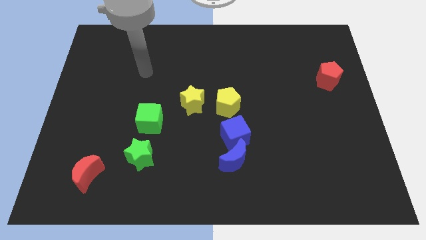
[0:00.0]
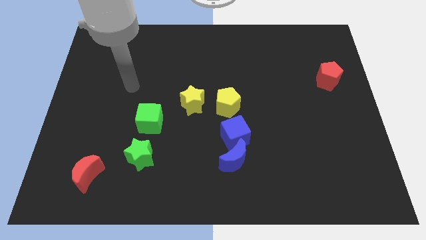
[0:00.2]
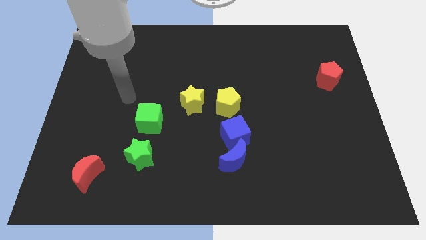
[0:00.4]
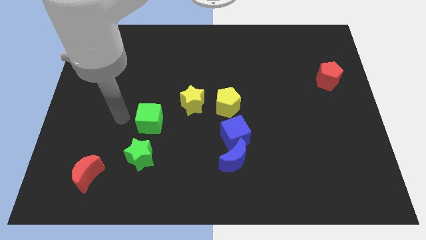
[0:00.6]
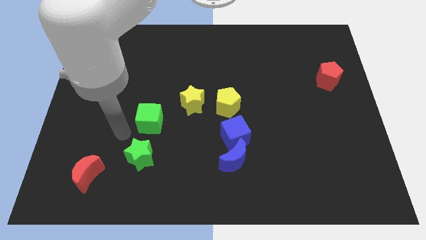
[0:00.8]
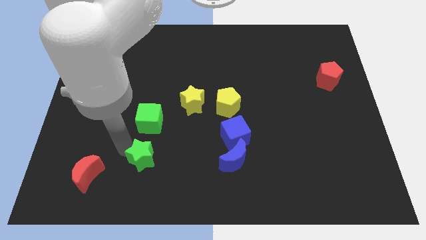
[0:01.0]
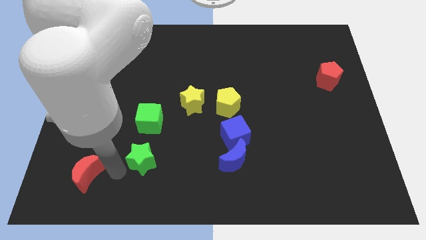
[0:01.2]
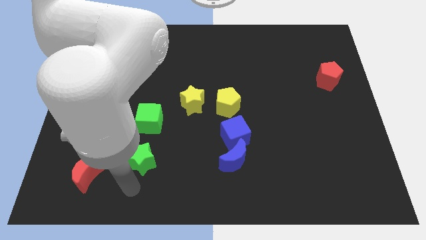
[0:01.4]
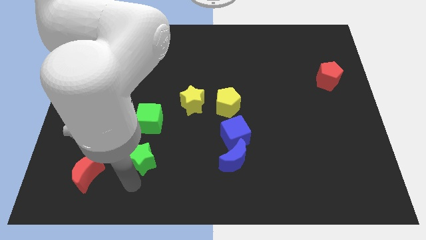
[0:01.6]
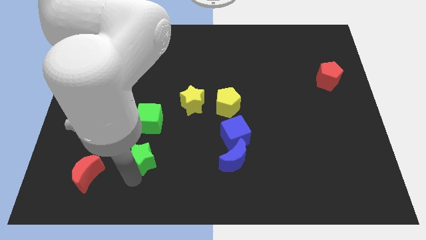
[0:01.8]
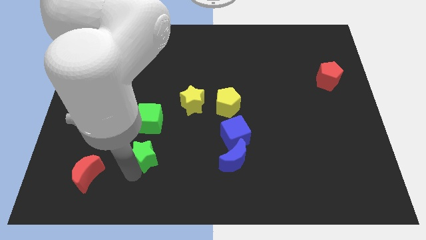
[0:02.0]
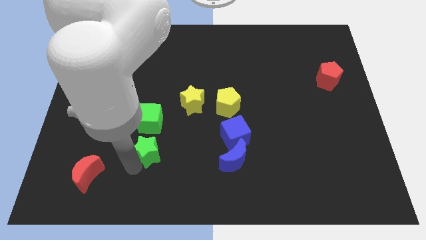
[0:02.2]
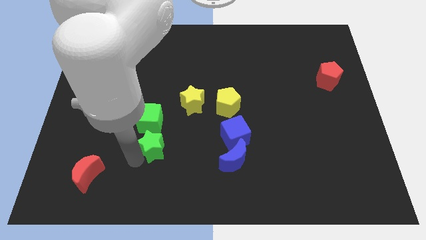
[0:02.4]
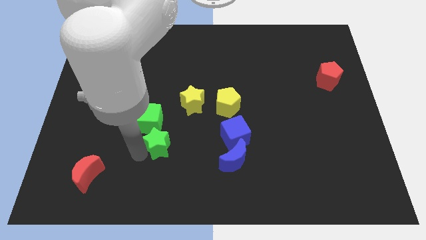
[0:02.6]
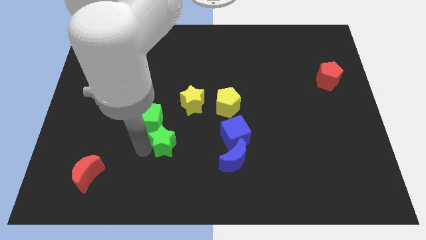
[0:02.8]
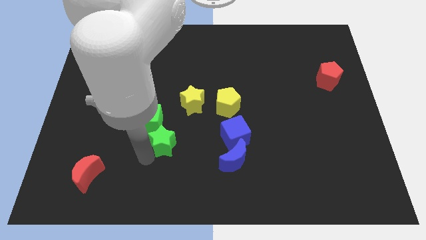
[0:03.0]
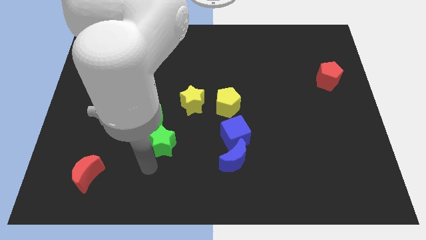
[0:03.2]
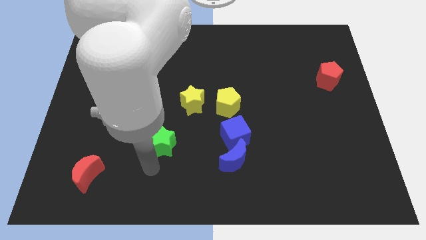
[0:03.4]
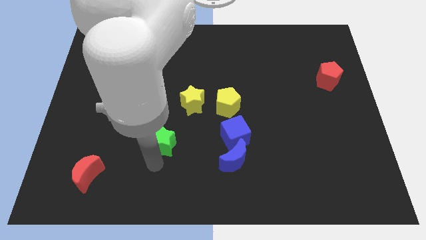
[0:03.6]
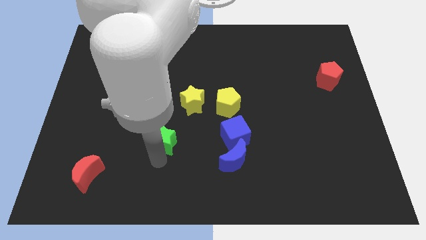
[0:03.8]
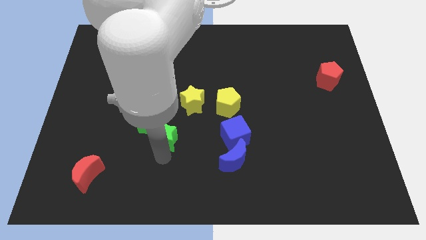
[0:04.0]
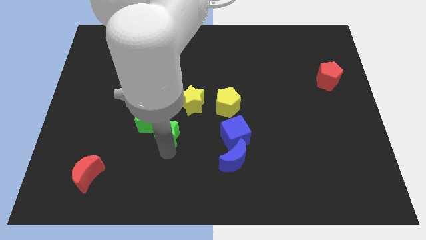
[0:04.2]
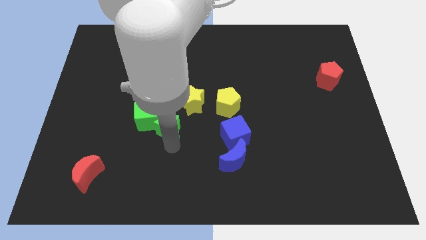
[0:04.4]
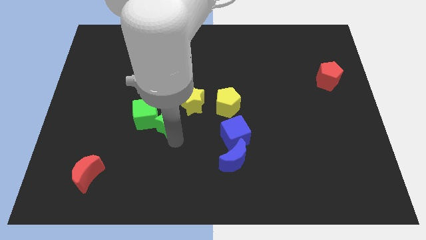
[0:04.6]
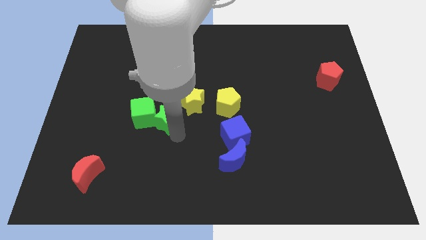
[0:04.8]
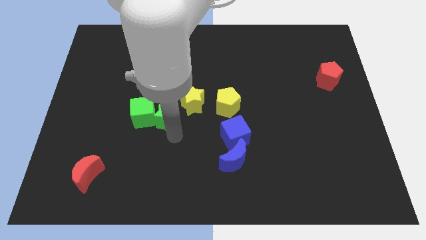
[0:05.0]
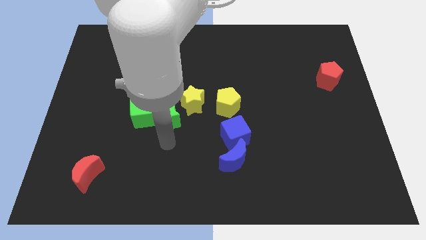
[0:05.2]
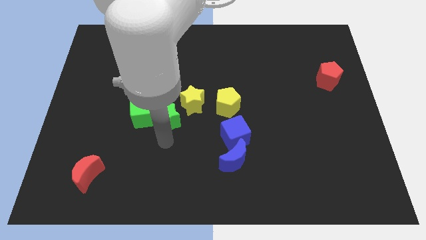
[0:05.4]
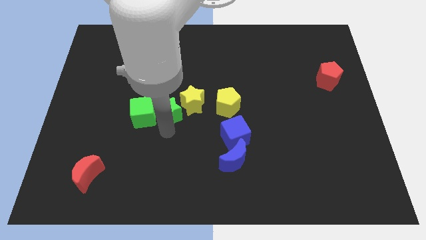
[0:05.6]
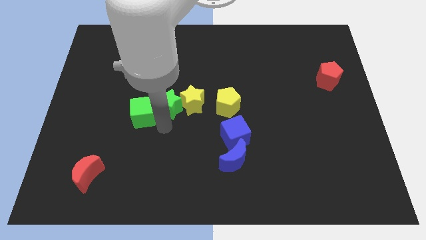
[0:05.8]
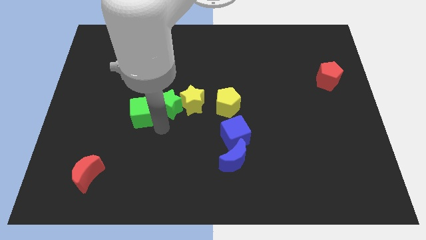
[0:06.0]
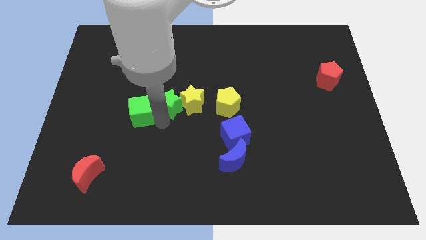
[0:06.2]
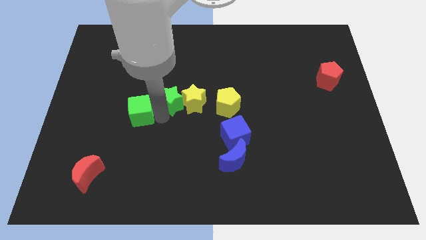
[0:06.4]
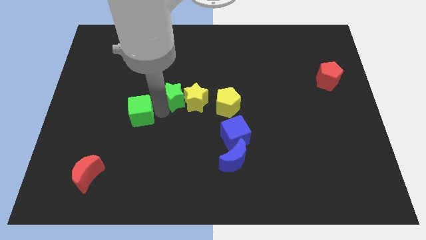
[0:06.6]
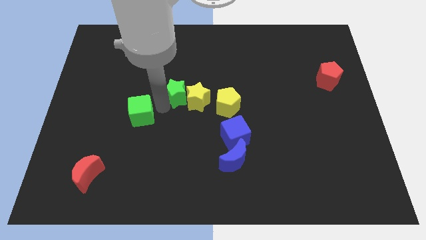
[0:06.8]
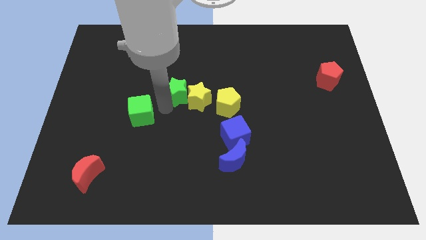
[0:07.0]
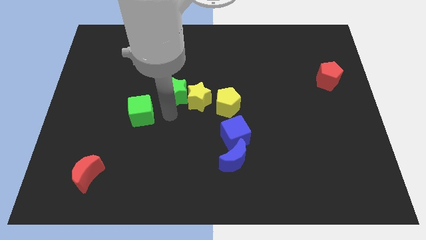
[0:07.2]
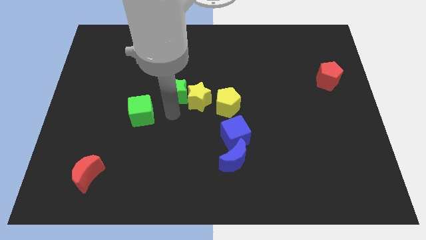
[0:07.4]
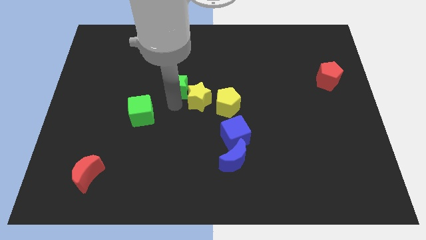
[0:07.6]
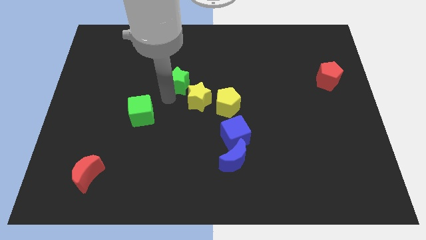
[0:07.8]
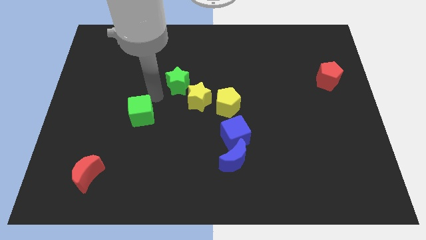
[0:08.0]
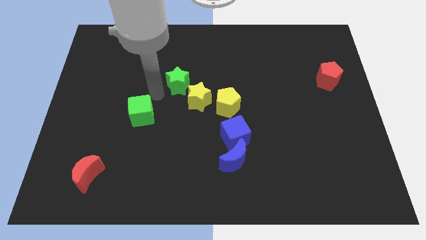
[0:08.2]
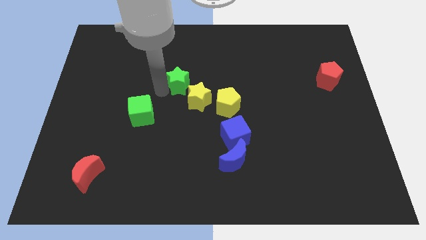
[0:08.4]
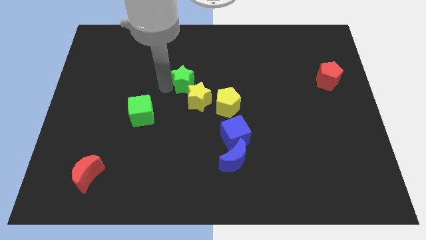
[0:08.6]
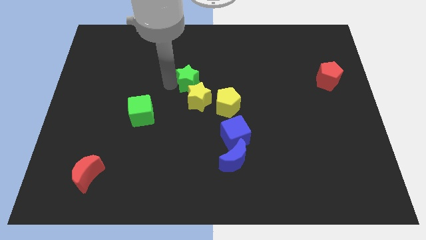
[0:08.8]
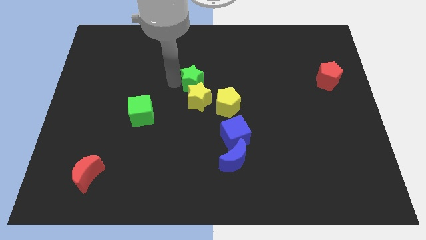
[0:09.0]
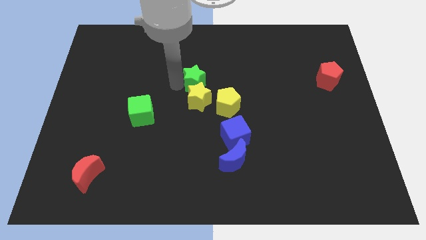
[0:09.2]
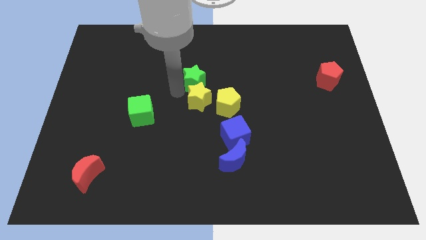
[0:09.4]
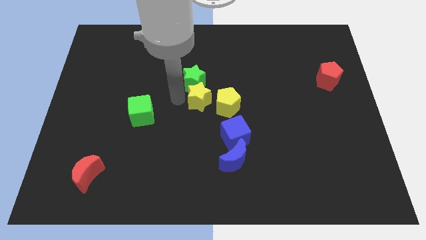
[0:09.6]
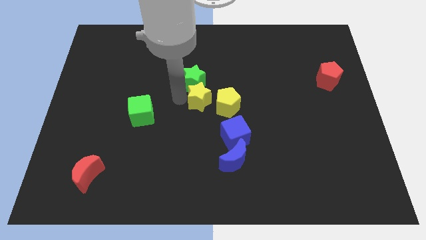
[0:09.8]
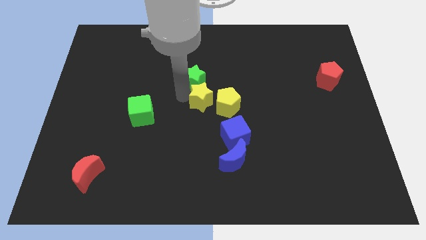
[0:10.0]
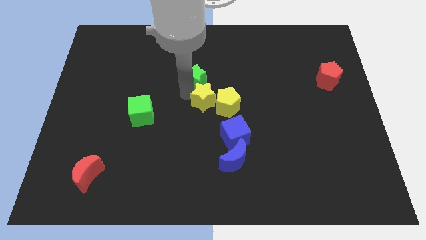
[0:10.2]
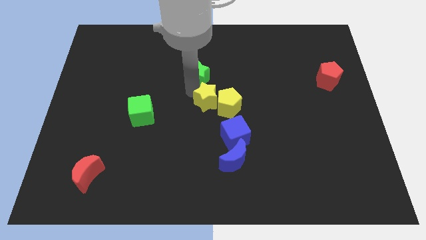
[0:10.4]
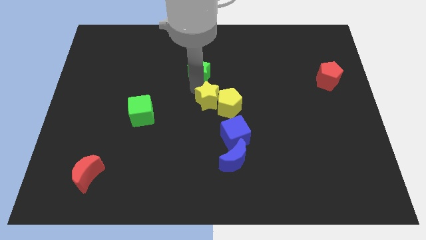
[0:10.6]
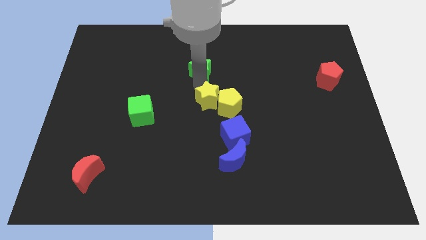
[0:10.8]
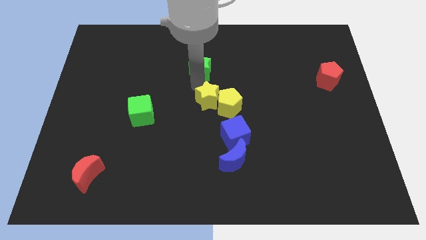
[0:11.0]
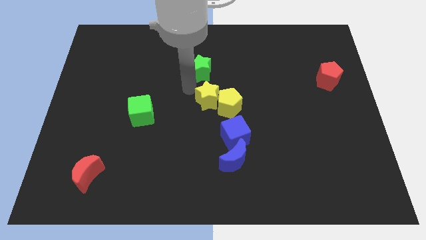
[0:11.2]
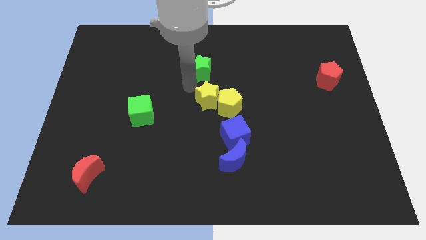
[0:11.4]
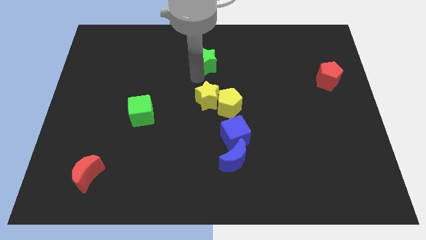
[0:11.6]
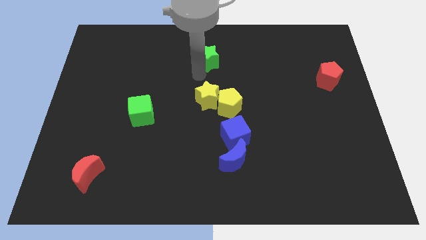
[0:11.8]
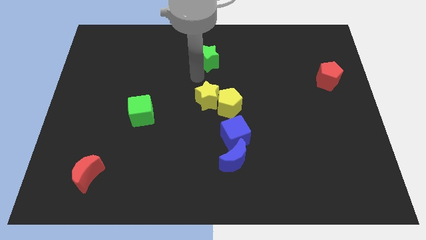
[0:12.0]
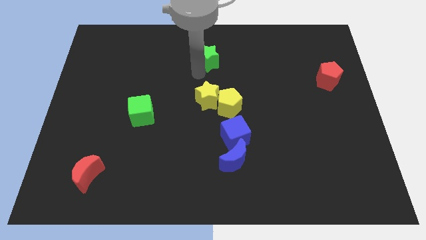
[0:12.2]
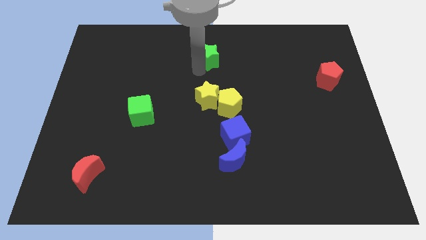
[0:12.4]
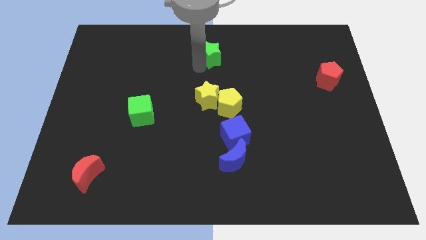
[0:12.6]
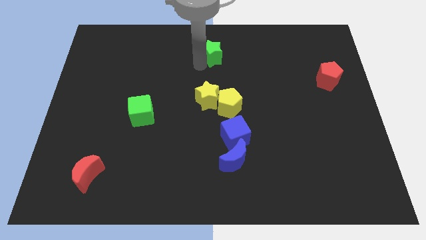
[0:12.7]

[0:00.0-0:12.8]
push the green star to the towards your base
